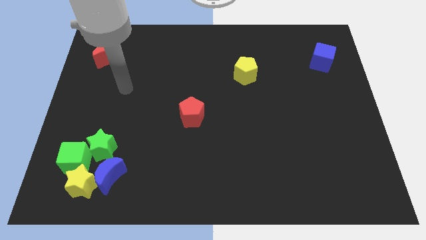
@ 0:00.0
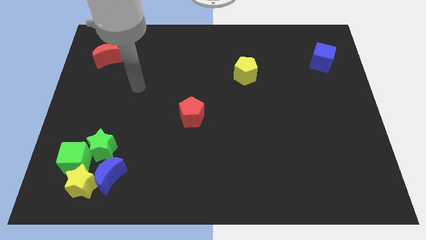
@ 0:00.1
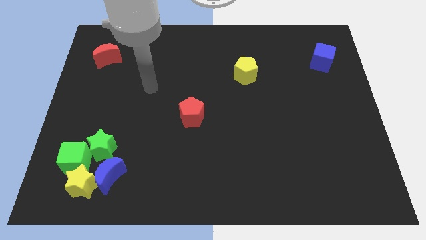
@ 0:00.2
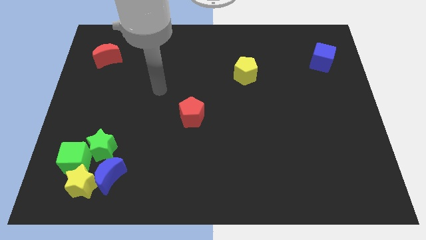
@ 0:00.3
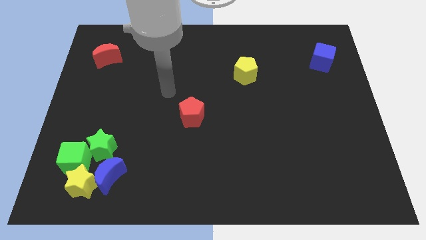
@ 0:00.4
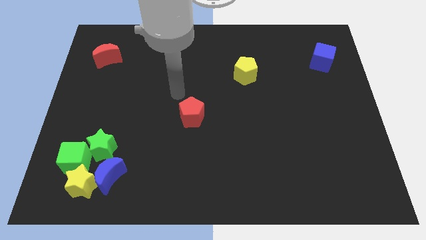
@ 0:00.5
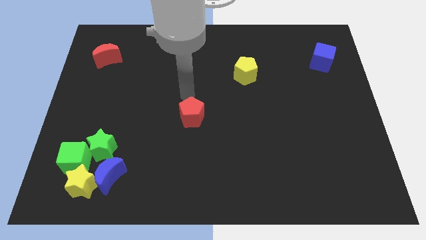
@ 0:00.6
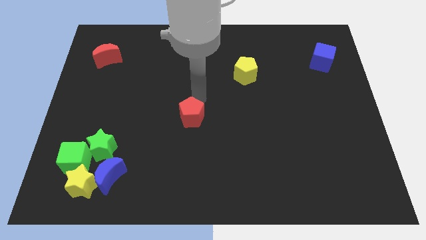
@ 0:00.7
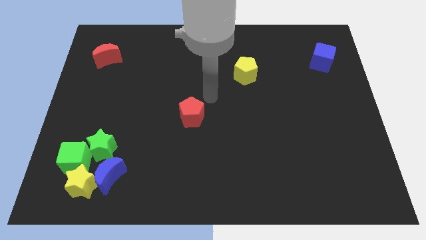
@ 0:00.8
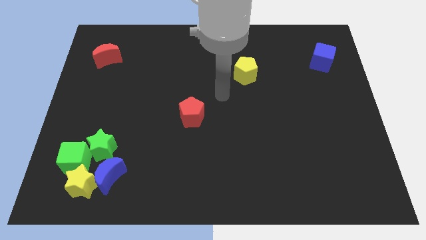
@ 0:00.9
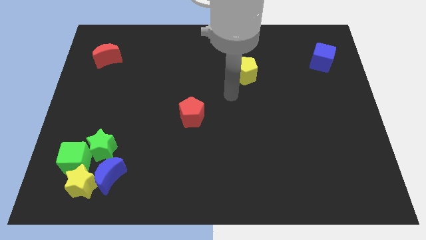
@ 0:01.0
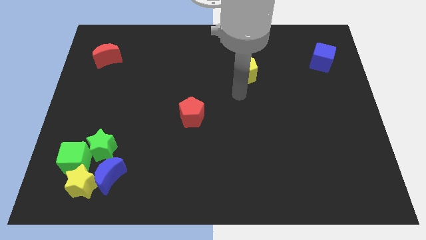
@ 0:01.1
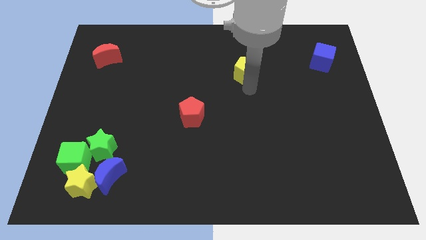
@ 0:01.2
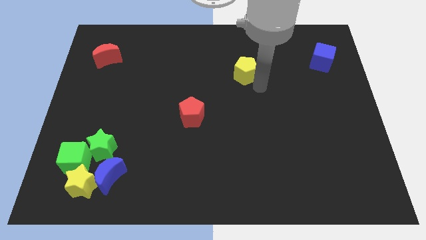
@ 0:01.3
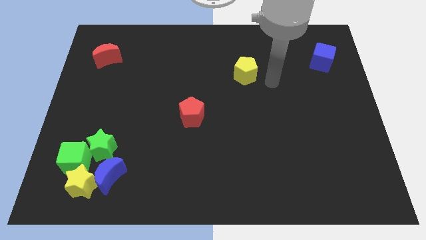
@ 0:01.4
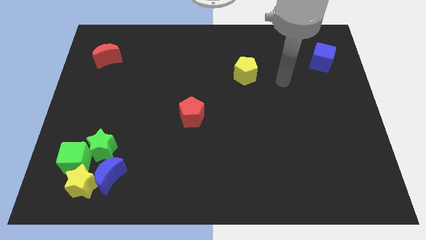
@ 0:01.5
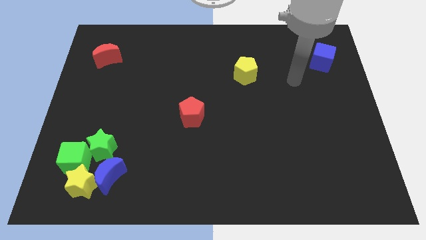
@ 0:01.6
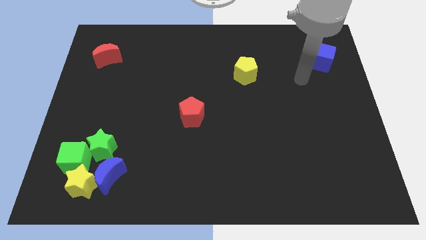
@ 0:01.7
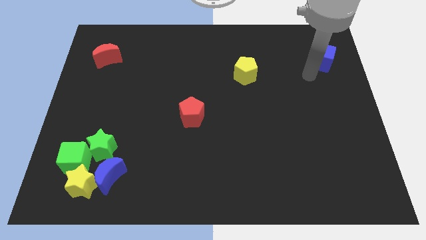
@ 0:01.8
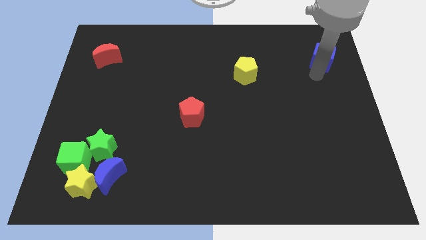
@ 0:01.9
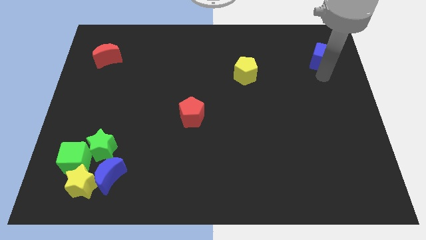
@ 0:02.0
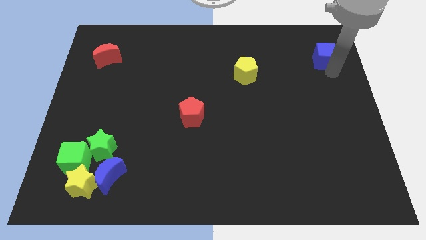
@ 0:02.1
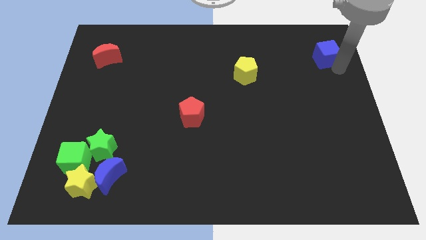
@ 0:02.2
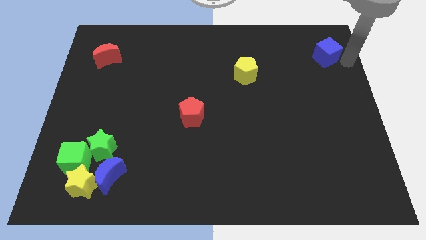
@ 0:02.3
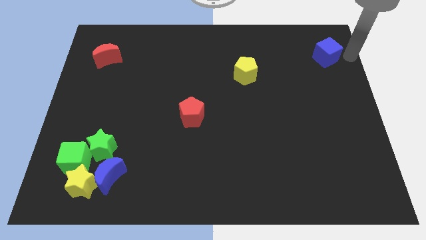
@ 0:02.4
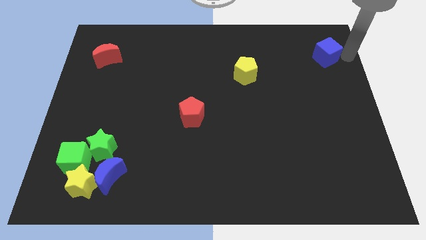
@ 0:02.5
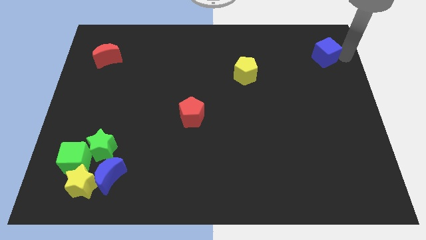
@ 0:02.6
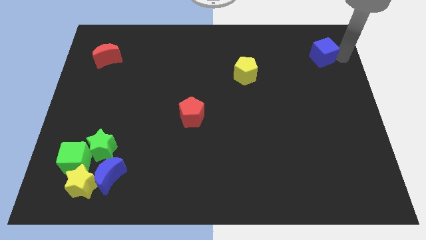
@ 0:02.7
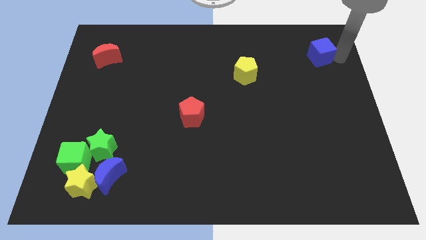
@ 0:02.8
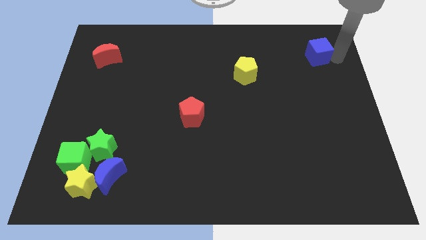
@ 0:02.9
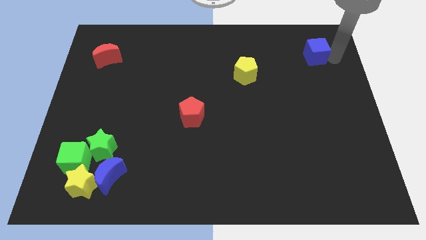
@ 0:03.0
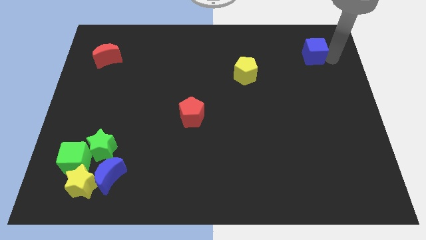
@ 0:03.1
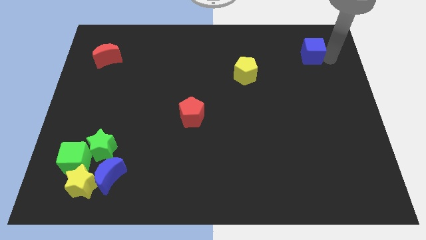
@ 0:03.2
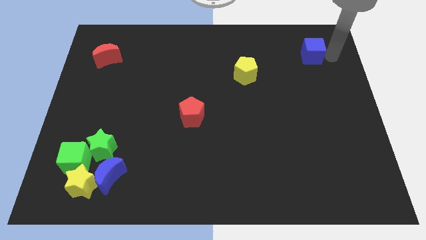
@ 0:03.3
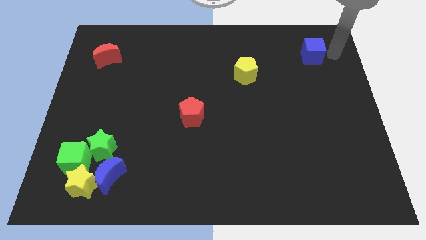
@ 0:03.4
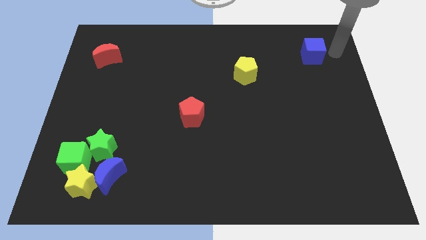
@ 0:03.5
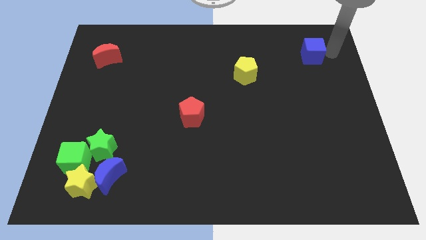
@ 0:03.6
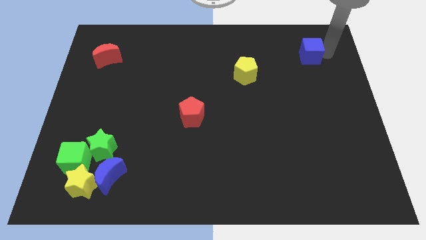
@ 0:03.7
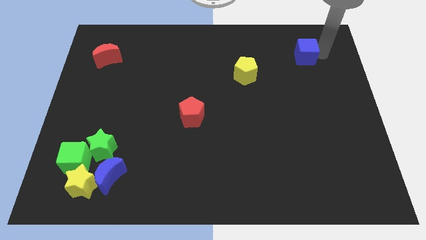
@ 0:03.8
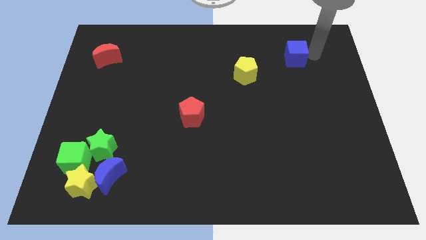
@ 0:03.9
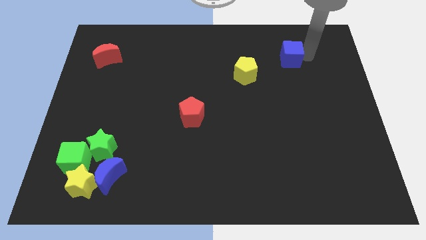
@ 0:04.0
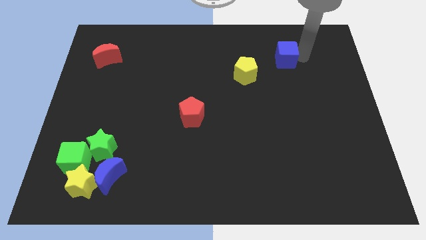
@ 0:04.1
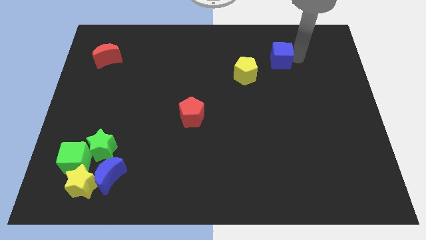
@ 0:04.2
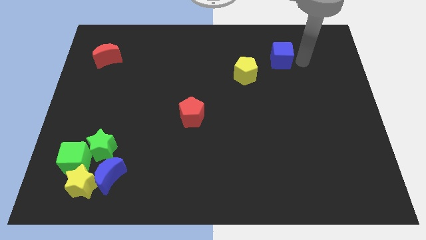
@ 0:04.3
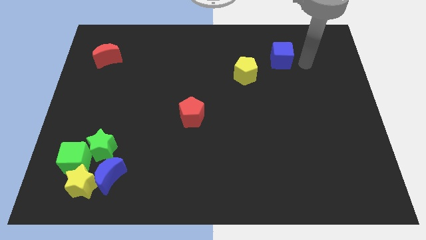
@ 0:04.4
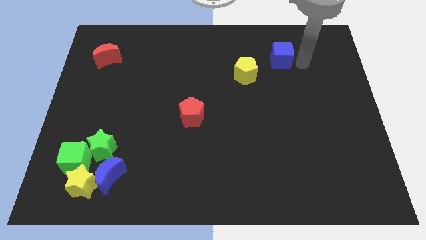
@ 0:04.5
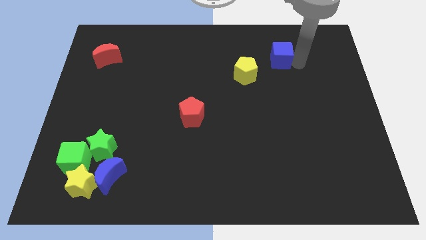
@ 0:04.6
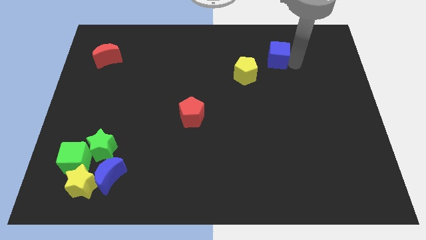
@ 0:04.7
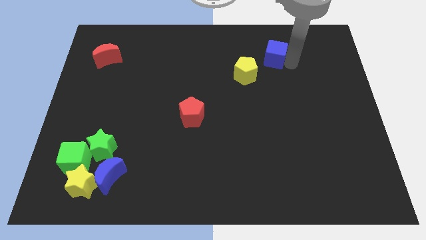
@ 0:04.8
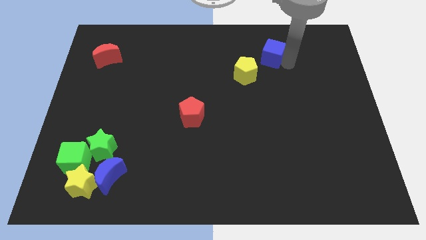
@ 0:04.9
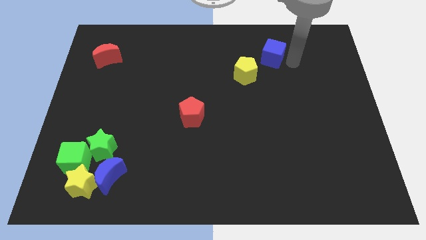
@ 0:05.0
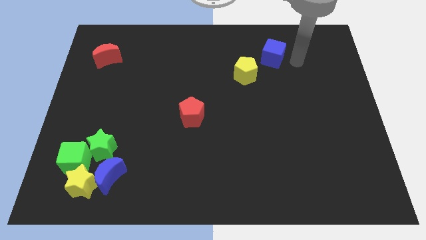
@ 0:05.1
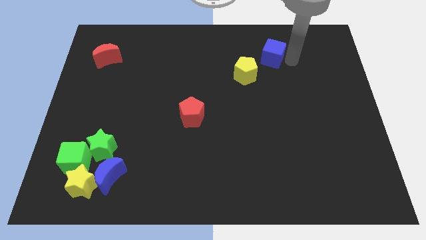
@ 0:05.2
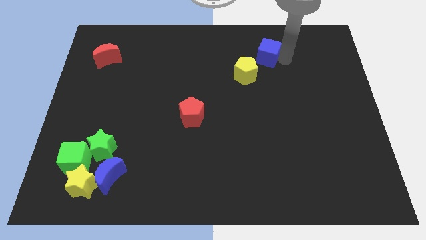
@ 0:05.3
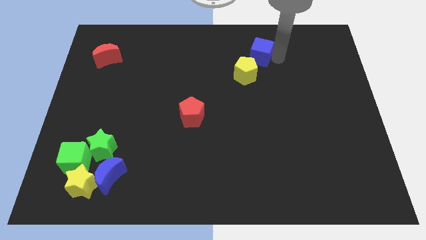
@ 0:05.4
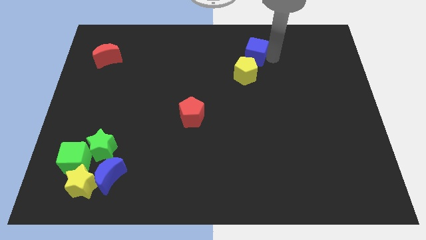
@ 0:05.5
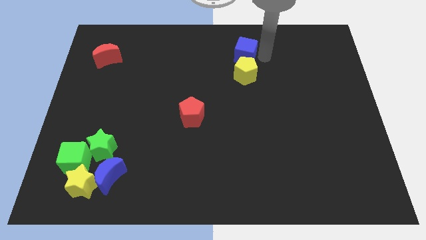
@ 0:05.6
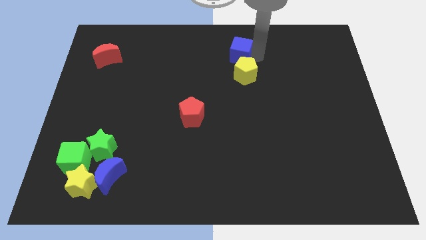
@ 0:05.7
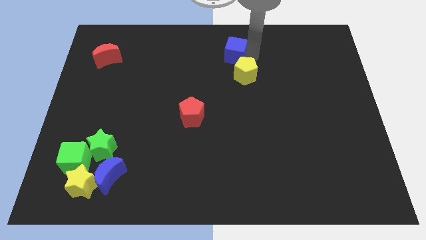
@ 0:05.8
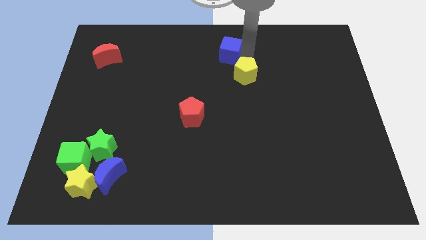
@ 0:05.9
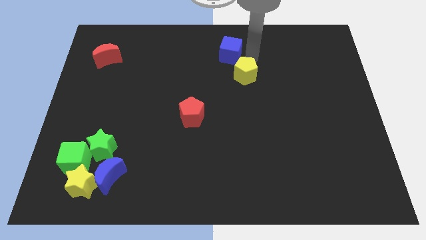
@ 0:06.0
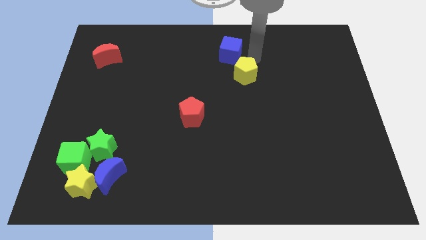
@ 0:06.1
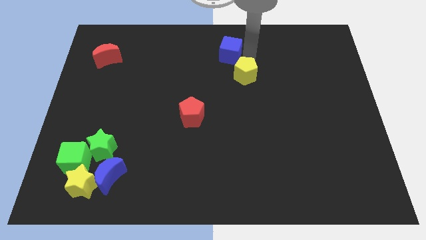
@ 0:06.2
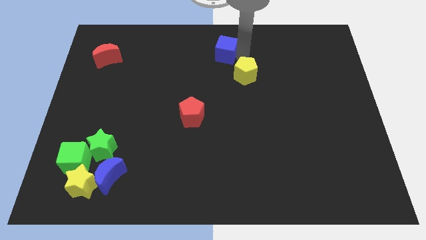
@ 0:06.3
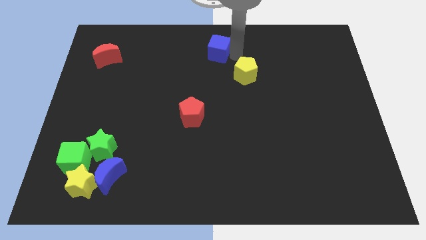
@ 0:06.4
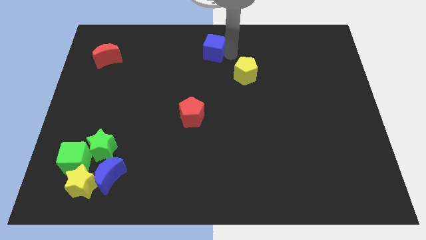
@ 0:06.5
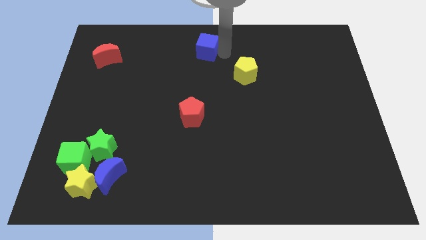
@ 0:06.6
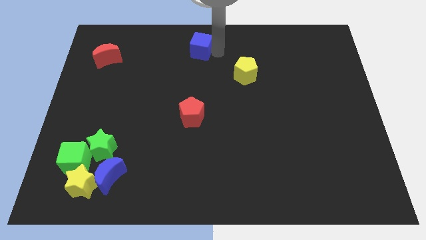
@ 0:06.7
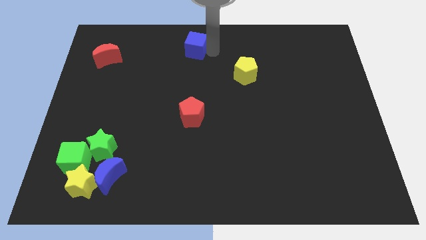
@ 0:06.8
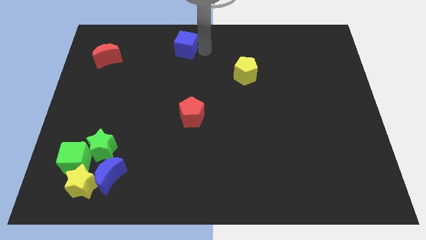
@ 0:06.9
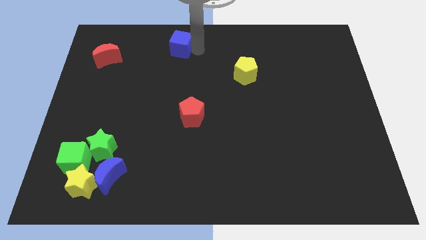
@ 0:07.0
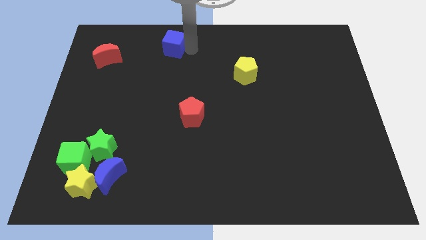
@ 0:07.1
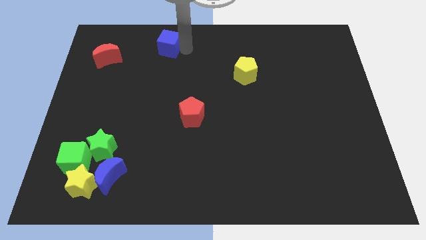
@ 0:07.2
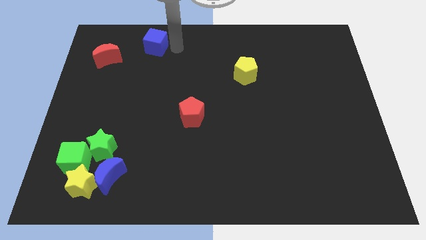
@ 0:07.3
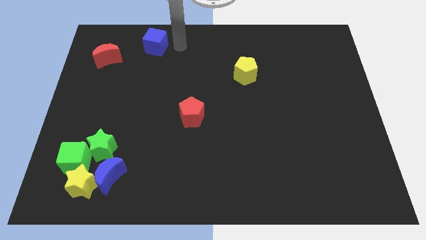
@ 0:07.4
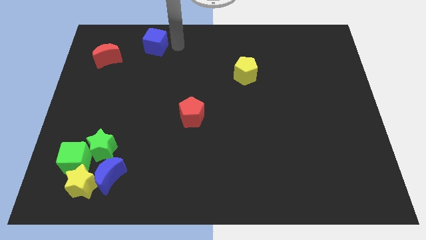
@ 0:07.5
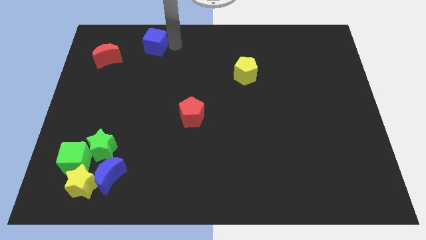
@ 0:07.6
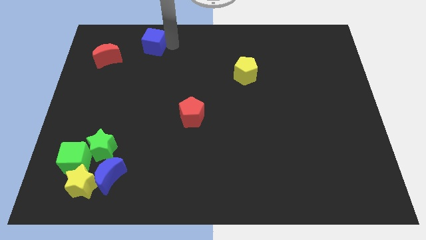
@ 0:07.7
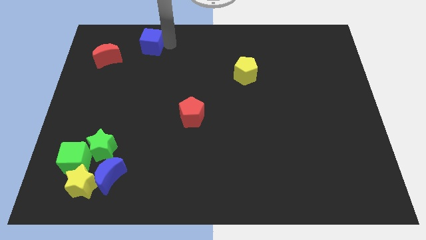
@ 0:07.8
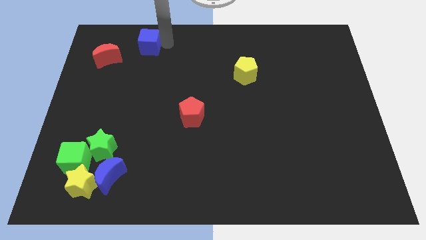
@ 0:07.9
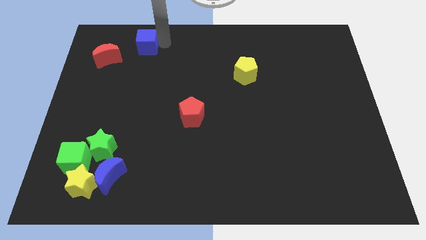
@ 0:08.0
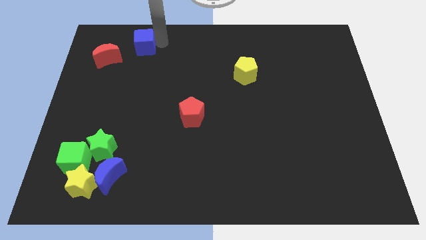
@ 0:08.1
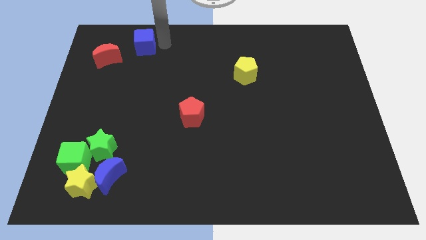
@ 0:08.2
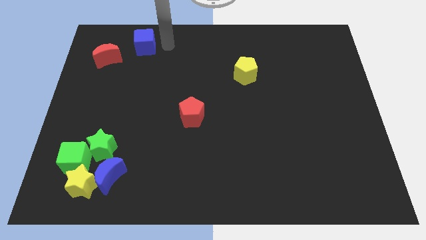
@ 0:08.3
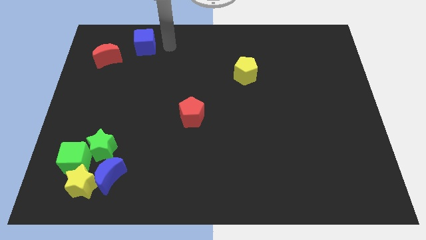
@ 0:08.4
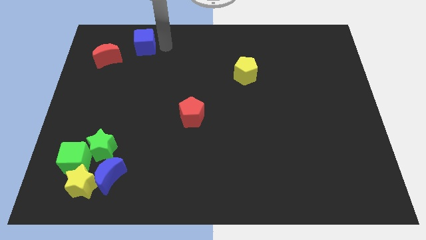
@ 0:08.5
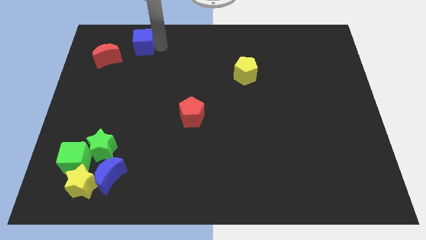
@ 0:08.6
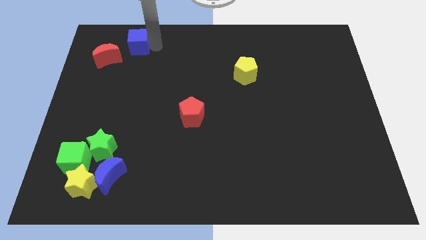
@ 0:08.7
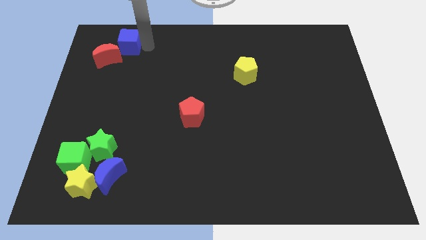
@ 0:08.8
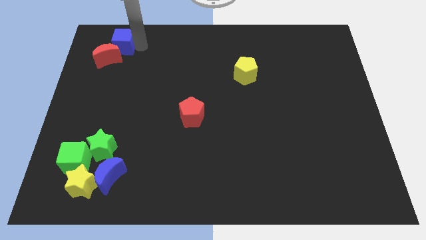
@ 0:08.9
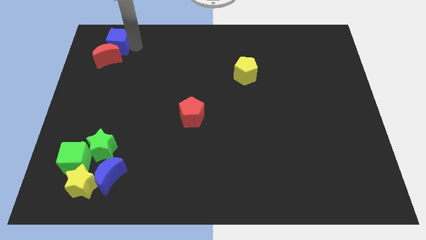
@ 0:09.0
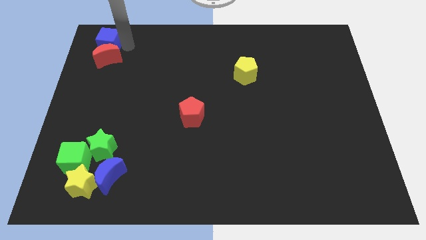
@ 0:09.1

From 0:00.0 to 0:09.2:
slide the blue cube to the top left of the board
